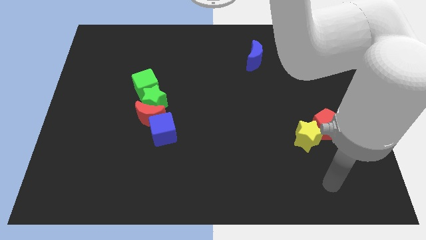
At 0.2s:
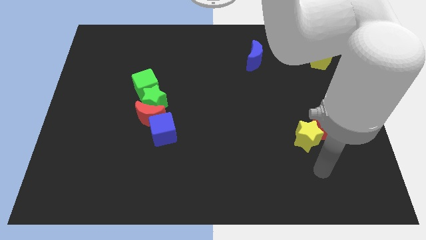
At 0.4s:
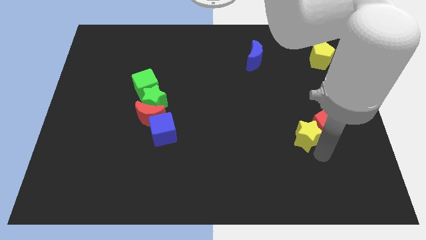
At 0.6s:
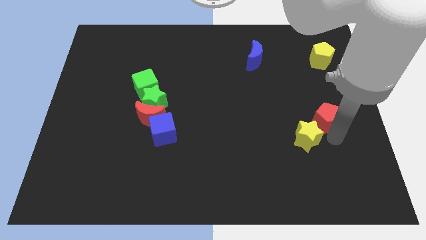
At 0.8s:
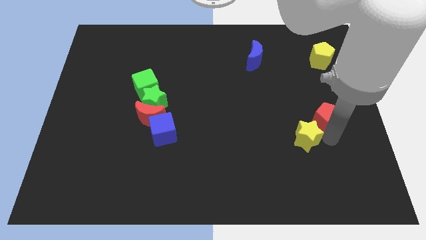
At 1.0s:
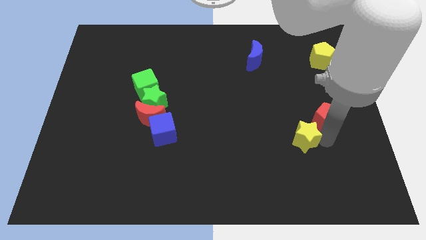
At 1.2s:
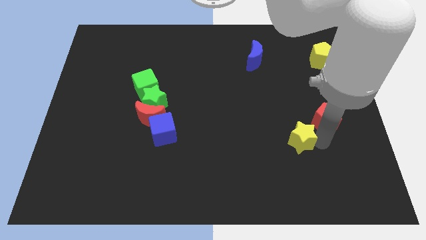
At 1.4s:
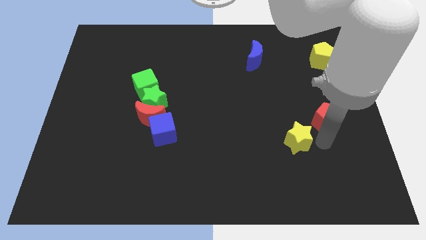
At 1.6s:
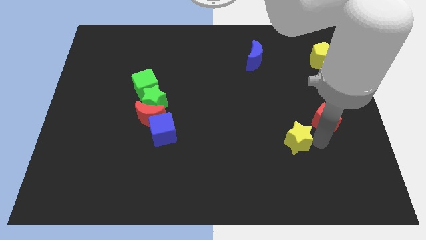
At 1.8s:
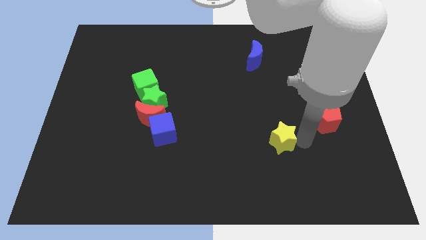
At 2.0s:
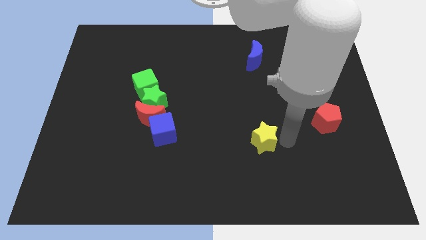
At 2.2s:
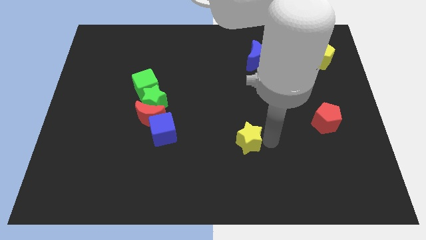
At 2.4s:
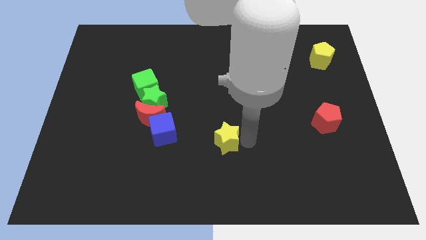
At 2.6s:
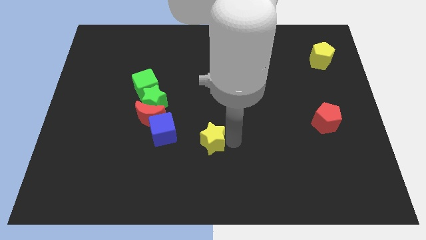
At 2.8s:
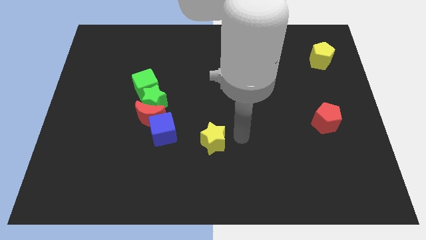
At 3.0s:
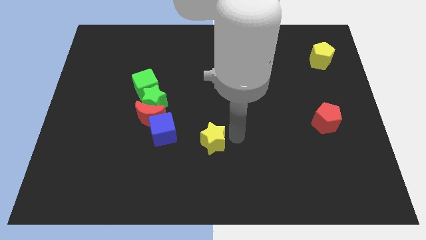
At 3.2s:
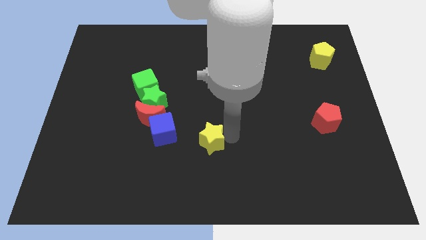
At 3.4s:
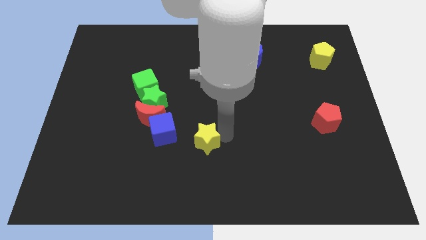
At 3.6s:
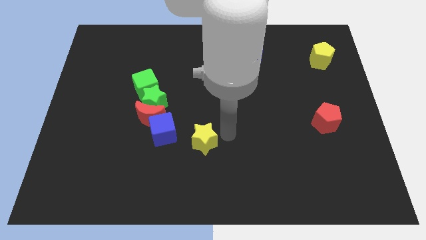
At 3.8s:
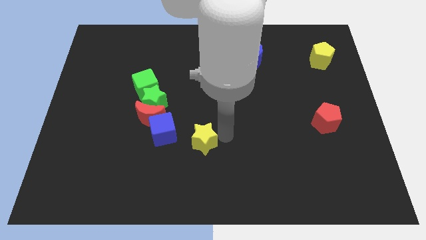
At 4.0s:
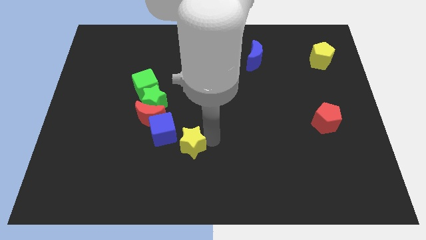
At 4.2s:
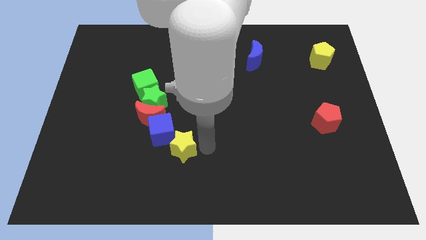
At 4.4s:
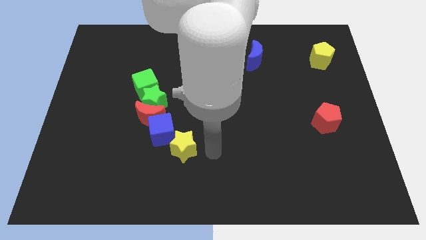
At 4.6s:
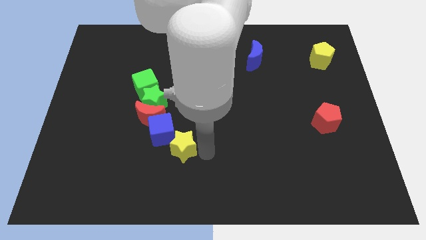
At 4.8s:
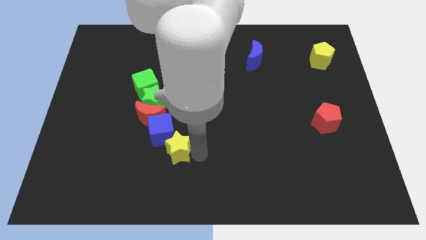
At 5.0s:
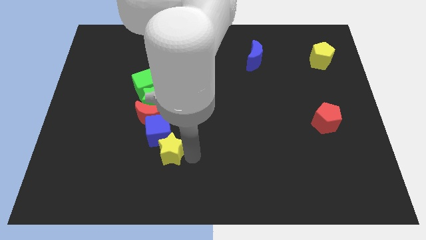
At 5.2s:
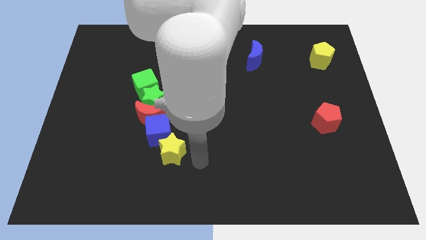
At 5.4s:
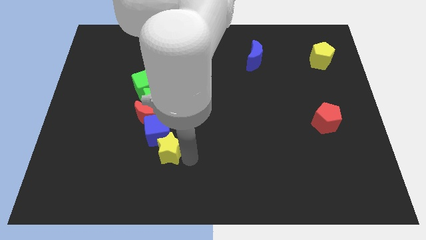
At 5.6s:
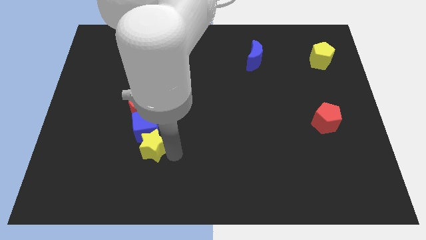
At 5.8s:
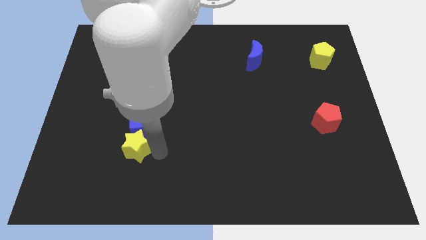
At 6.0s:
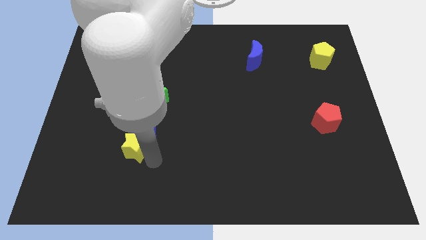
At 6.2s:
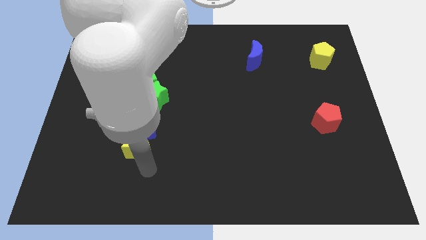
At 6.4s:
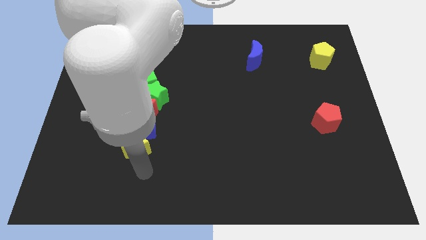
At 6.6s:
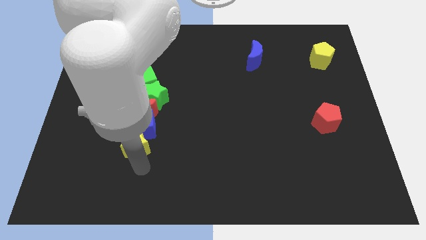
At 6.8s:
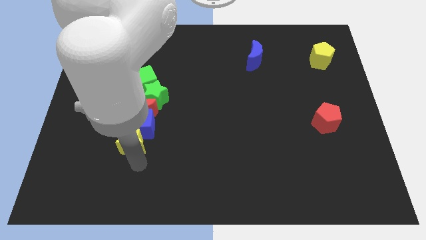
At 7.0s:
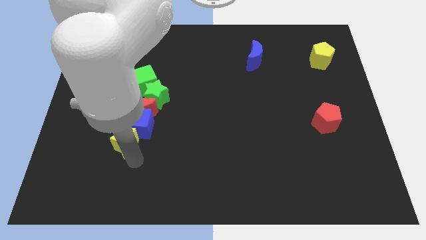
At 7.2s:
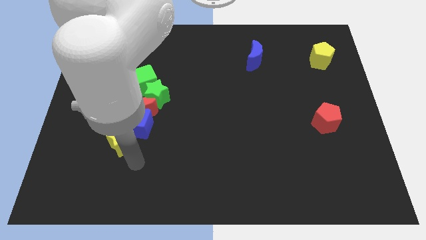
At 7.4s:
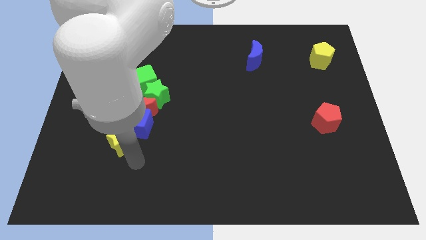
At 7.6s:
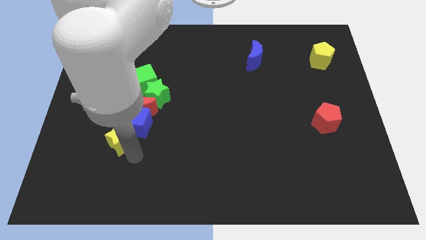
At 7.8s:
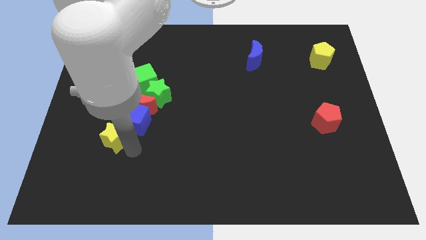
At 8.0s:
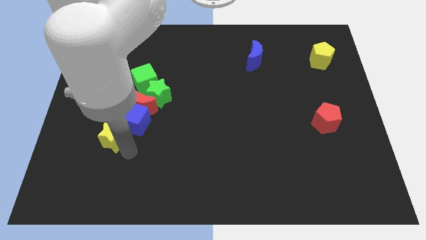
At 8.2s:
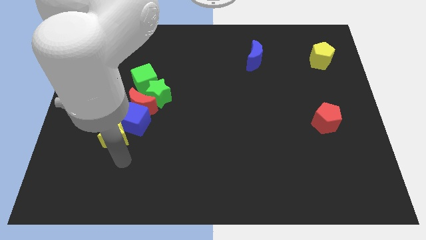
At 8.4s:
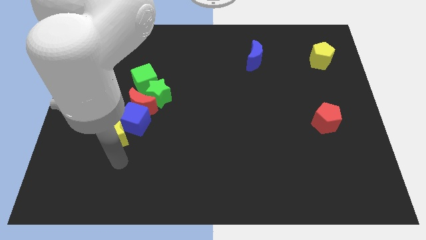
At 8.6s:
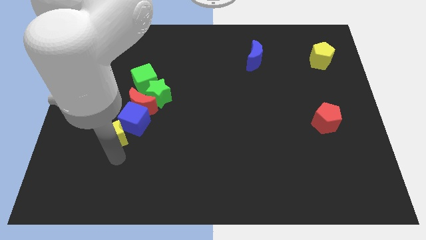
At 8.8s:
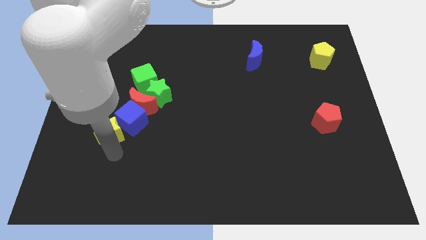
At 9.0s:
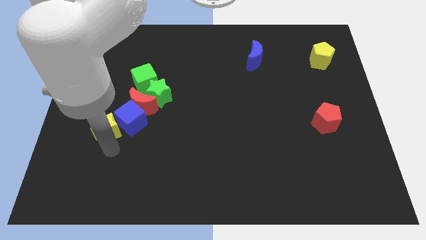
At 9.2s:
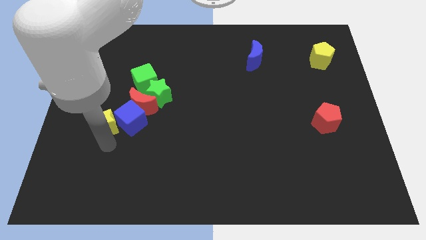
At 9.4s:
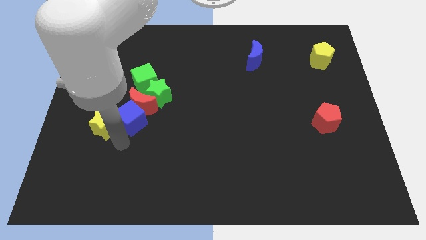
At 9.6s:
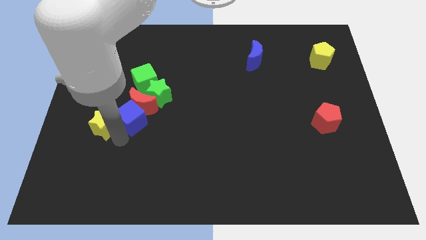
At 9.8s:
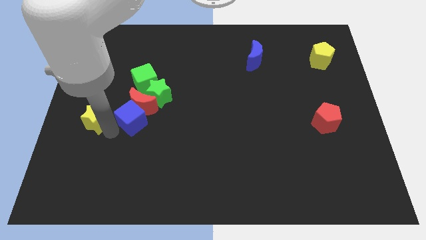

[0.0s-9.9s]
slide the yellow star to the center left

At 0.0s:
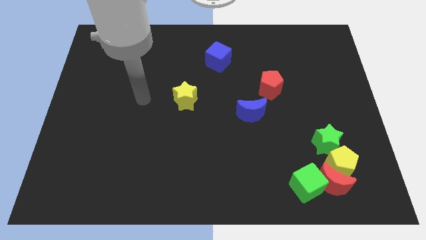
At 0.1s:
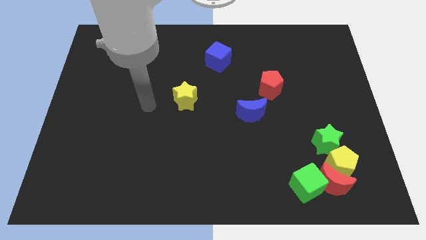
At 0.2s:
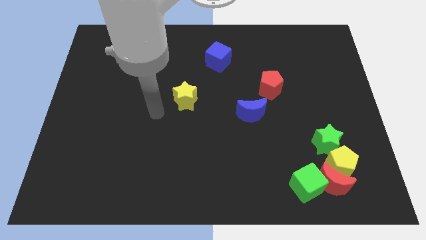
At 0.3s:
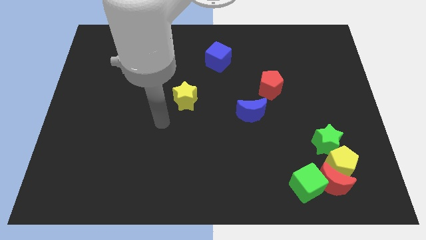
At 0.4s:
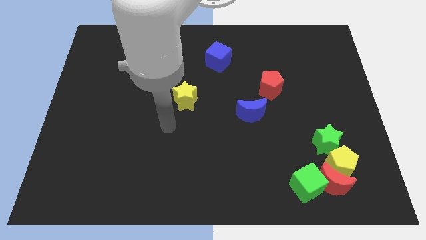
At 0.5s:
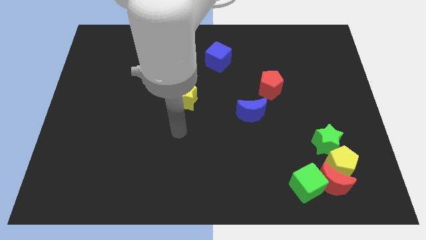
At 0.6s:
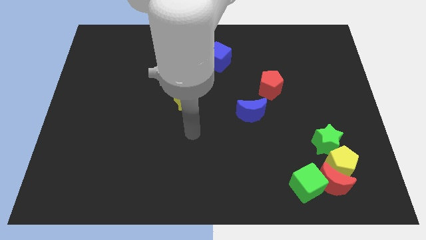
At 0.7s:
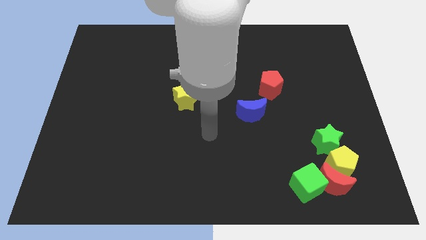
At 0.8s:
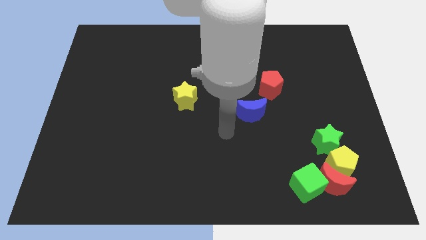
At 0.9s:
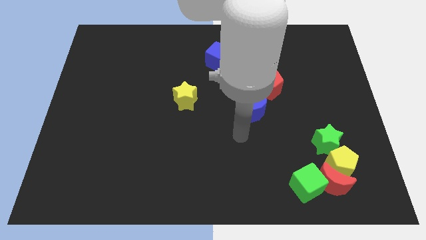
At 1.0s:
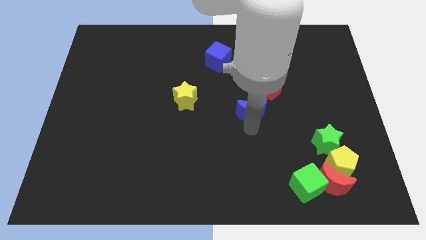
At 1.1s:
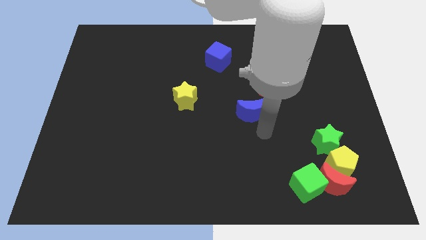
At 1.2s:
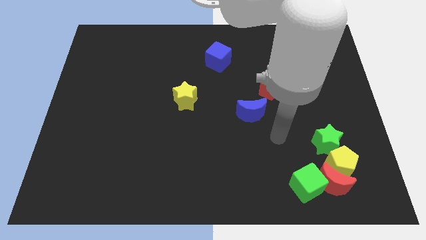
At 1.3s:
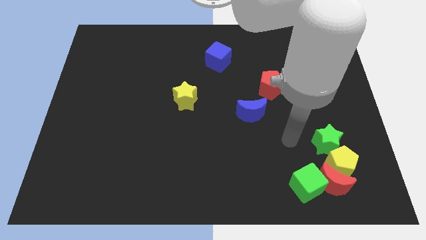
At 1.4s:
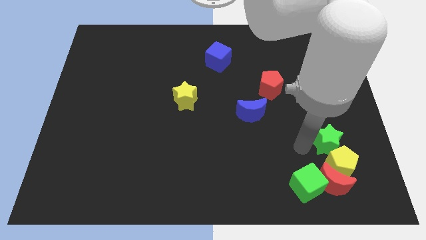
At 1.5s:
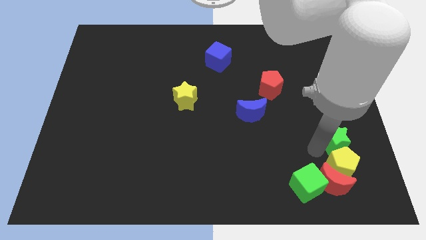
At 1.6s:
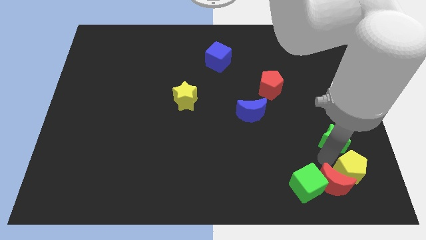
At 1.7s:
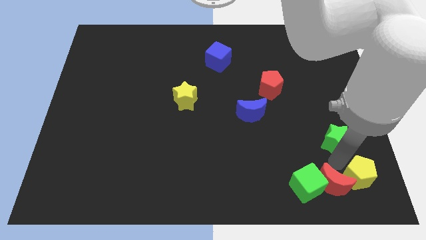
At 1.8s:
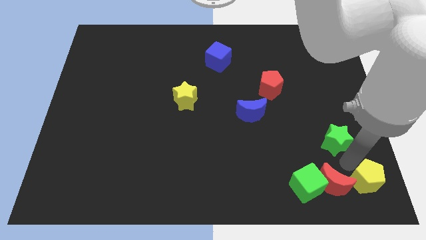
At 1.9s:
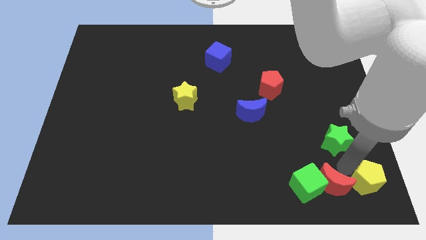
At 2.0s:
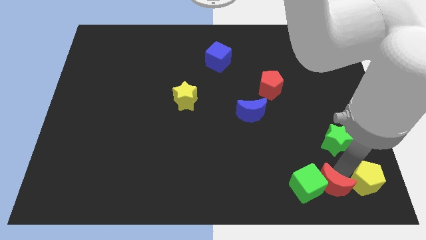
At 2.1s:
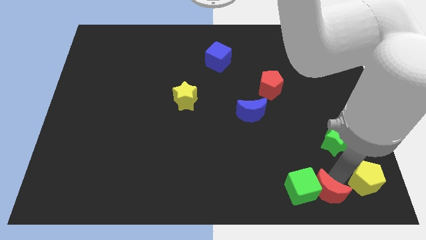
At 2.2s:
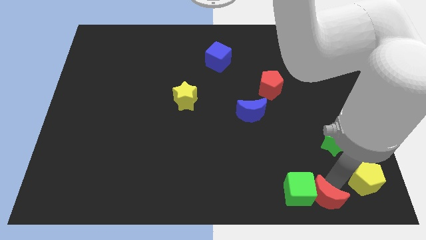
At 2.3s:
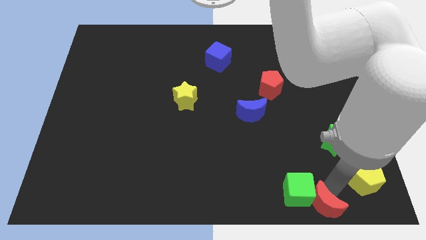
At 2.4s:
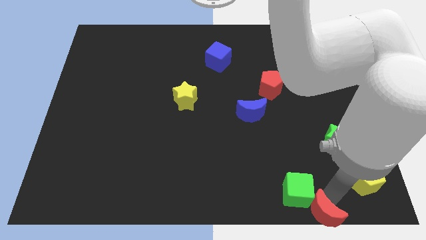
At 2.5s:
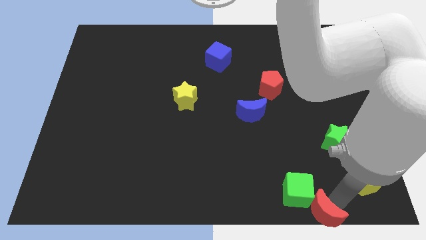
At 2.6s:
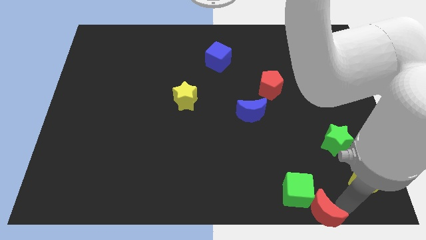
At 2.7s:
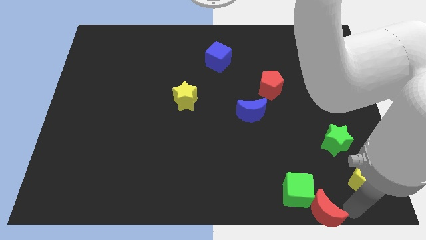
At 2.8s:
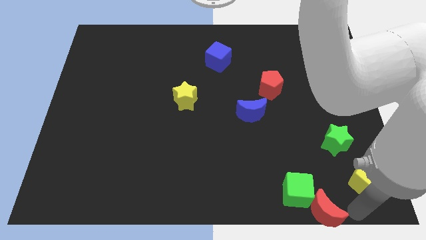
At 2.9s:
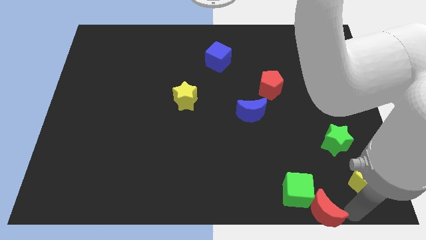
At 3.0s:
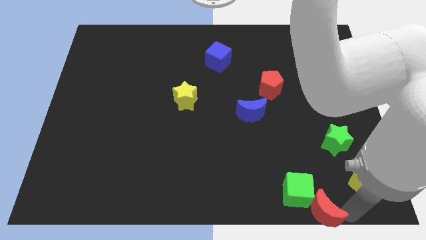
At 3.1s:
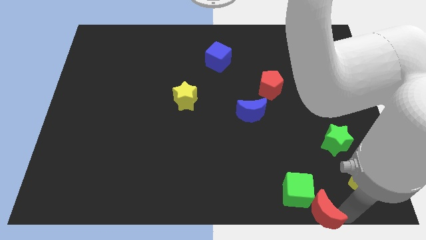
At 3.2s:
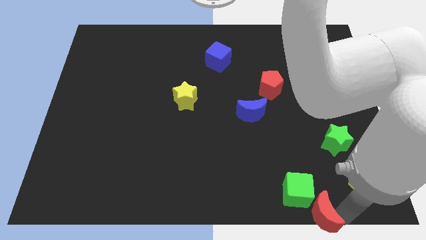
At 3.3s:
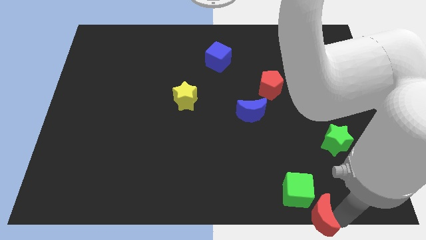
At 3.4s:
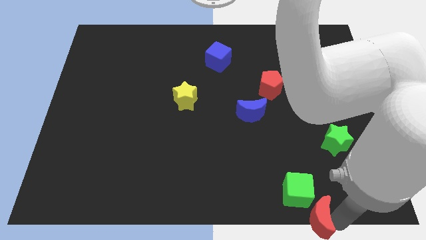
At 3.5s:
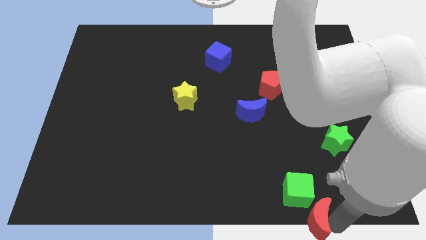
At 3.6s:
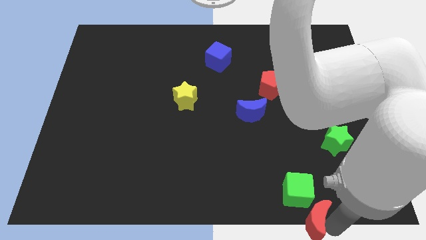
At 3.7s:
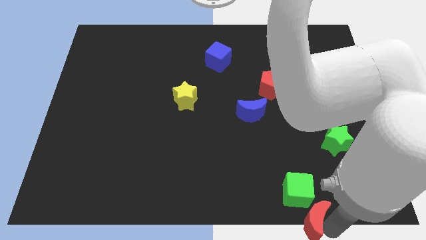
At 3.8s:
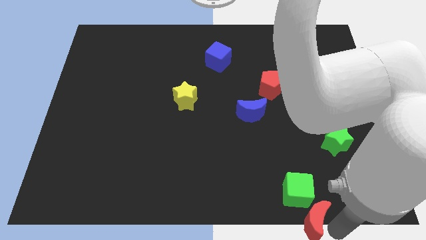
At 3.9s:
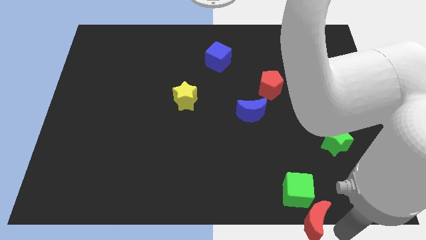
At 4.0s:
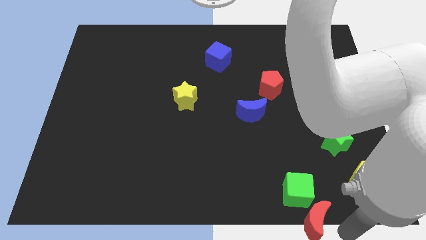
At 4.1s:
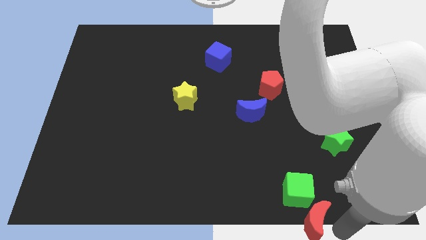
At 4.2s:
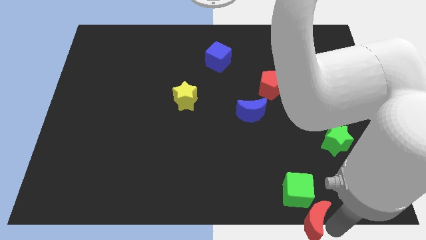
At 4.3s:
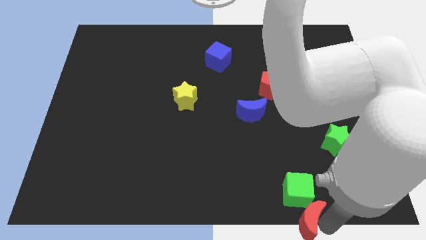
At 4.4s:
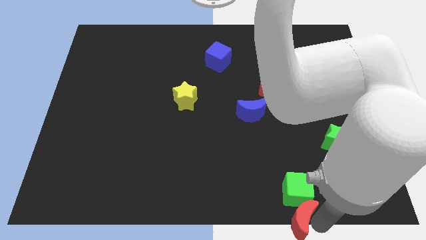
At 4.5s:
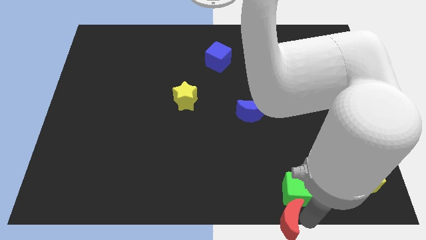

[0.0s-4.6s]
move the red moon to the bottom side
